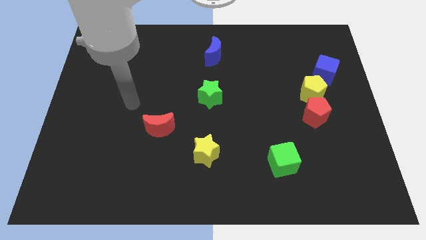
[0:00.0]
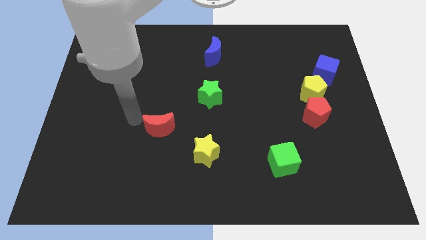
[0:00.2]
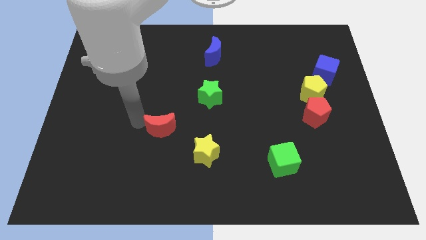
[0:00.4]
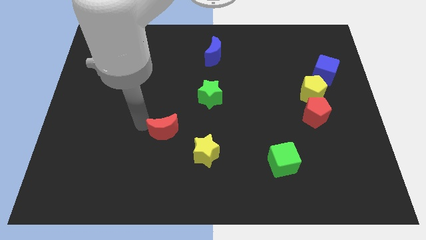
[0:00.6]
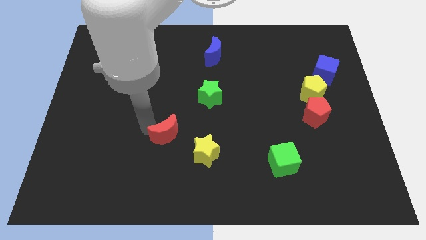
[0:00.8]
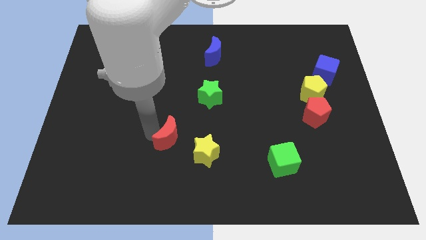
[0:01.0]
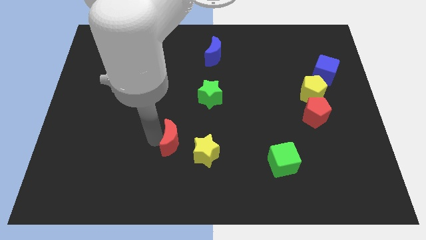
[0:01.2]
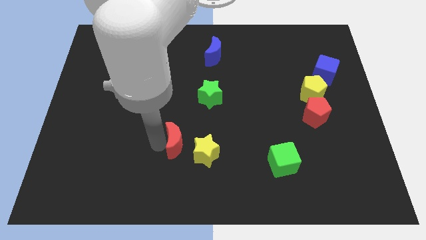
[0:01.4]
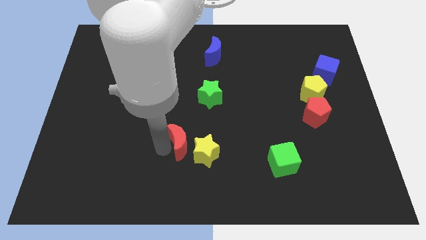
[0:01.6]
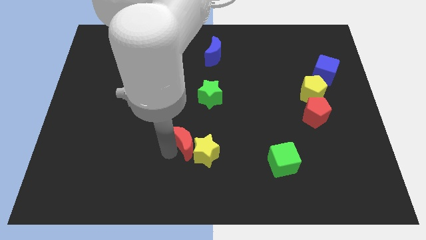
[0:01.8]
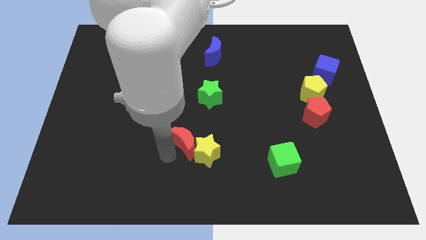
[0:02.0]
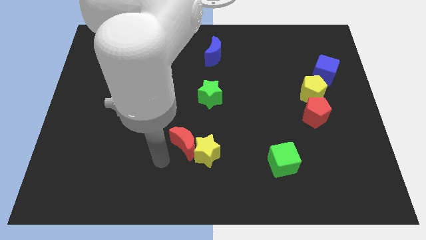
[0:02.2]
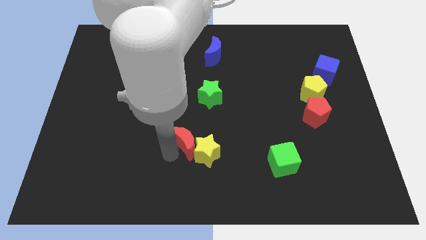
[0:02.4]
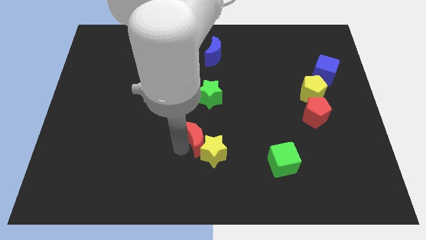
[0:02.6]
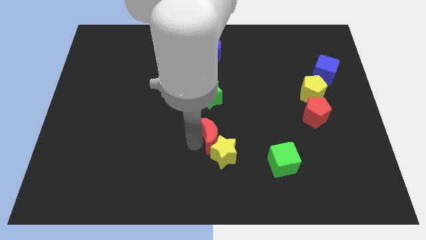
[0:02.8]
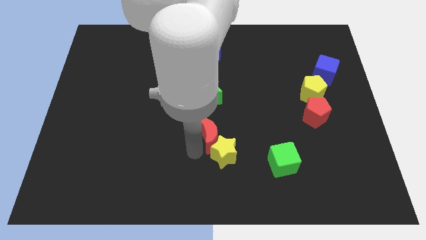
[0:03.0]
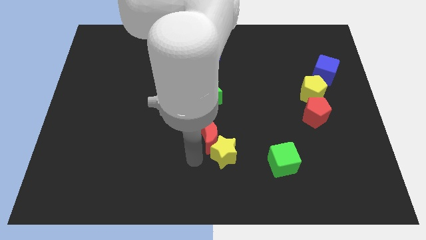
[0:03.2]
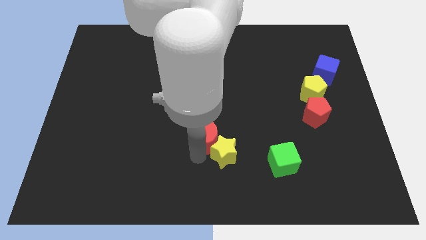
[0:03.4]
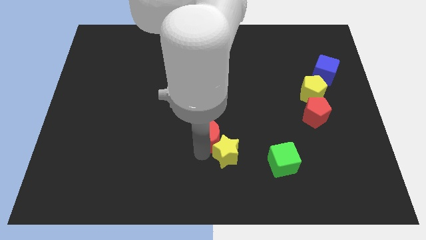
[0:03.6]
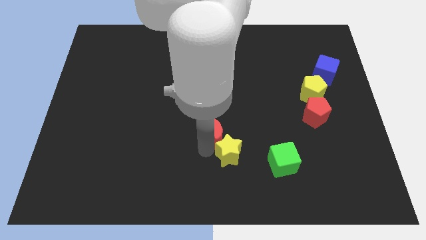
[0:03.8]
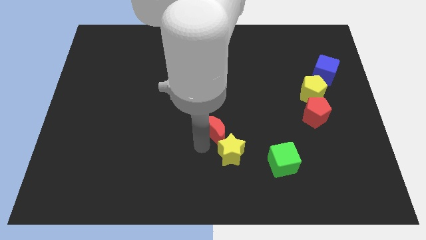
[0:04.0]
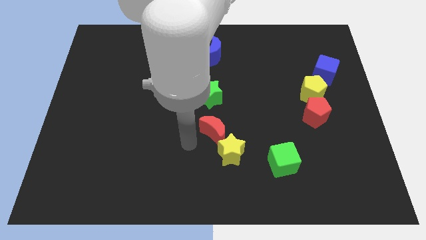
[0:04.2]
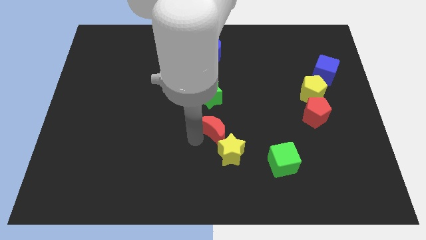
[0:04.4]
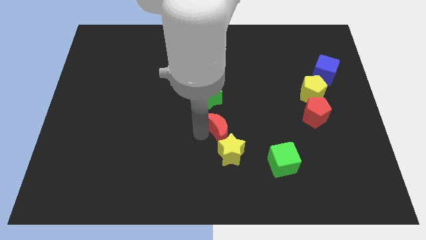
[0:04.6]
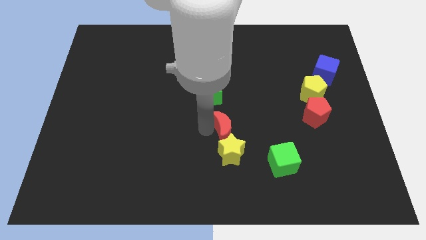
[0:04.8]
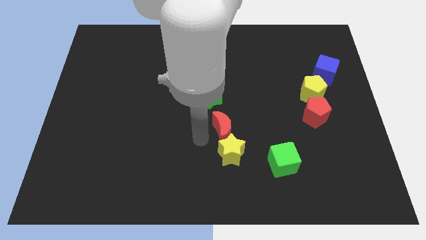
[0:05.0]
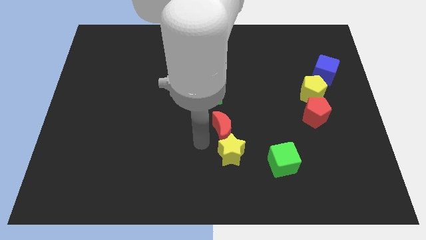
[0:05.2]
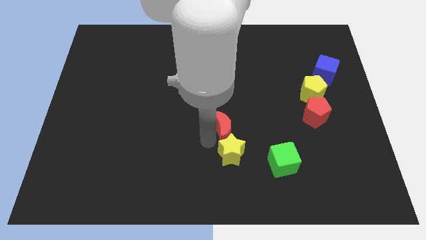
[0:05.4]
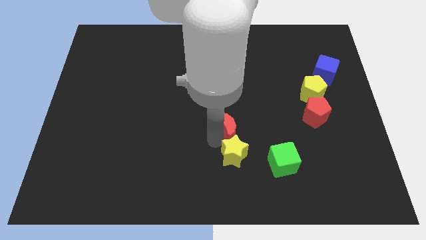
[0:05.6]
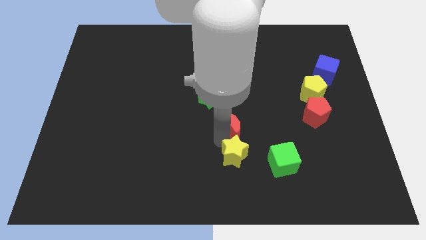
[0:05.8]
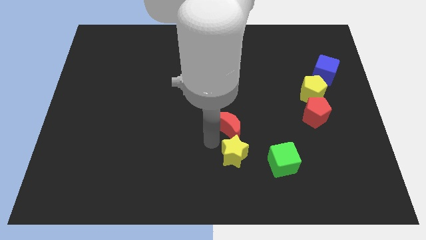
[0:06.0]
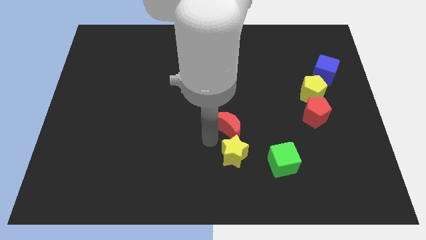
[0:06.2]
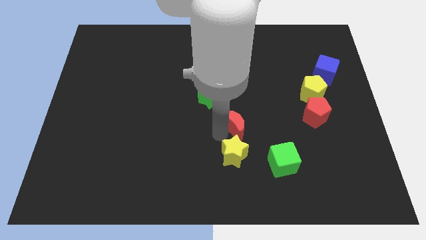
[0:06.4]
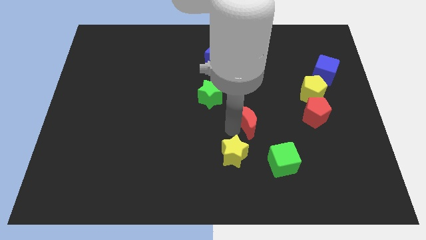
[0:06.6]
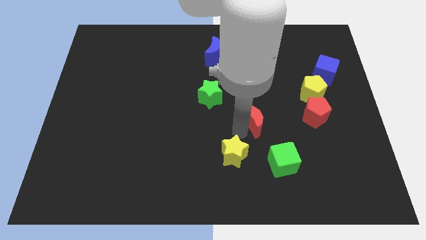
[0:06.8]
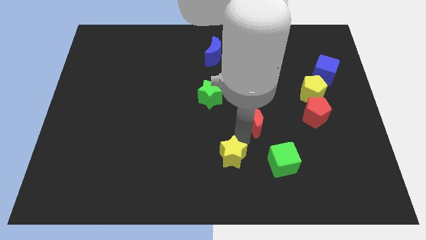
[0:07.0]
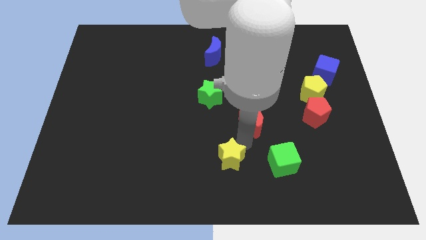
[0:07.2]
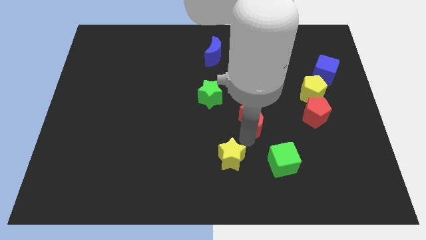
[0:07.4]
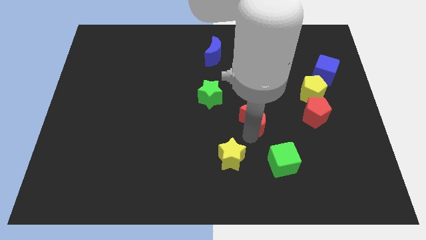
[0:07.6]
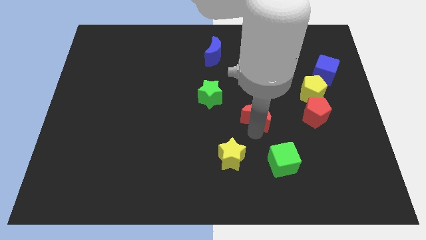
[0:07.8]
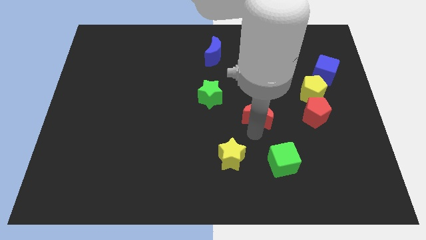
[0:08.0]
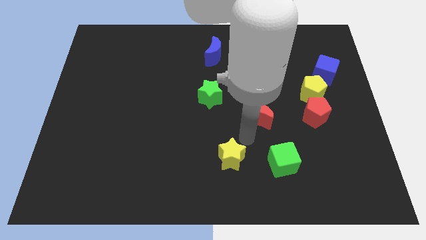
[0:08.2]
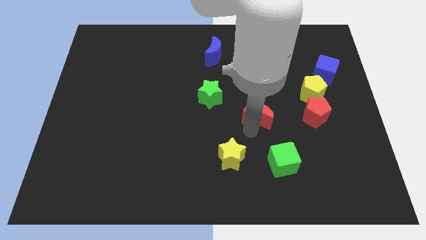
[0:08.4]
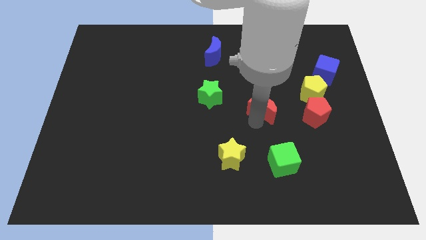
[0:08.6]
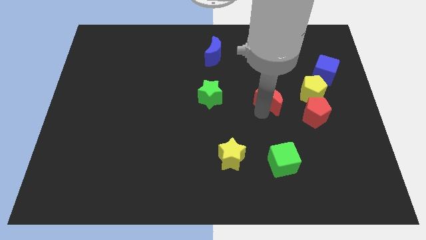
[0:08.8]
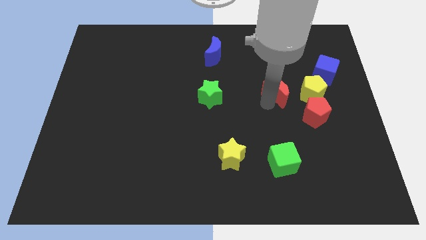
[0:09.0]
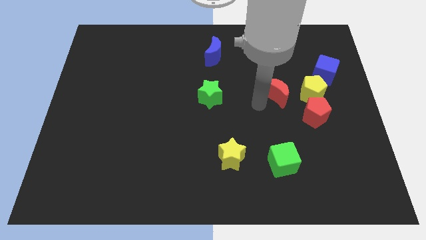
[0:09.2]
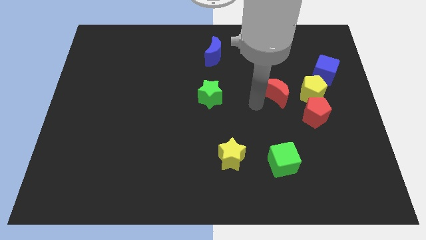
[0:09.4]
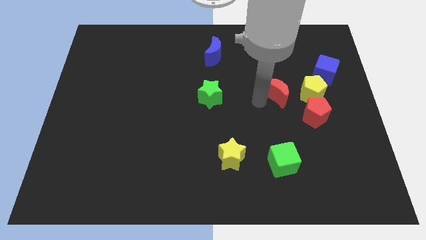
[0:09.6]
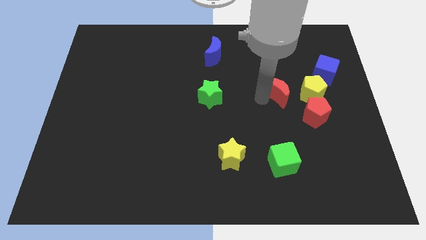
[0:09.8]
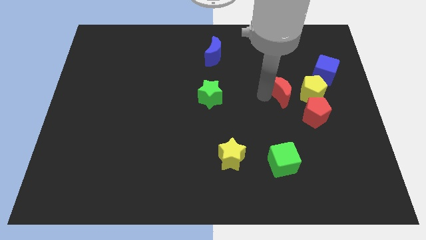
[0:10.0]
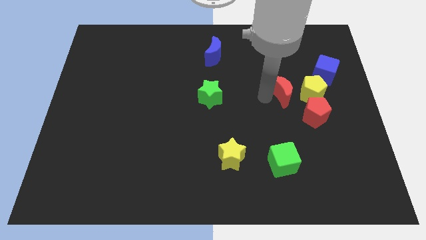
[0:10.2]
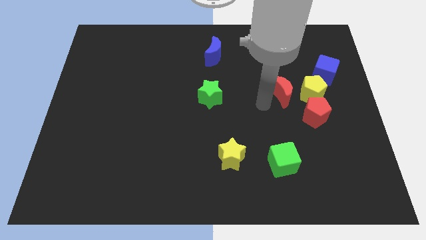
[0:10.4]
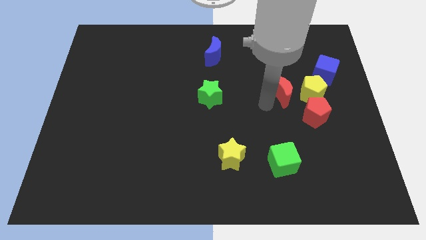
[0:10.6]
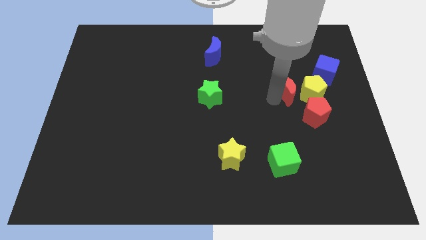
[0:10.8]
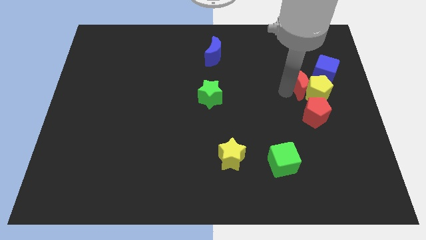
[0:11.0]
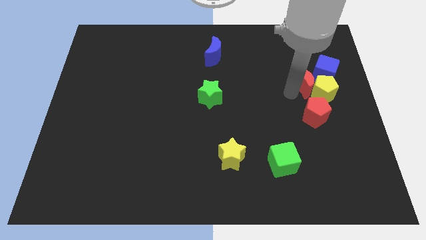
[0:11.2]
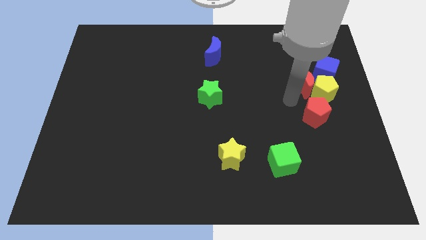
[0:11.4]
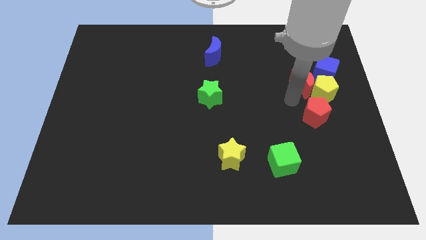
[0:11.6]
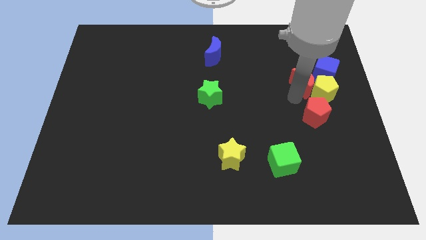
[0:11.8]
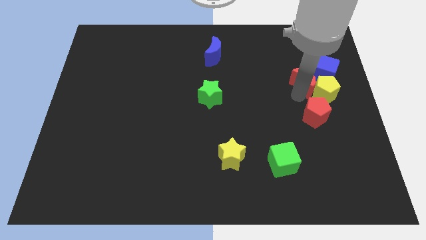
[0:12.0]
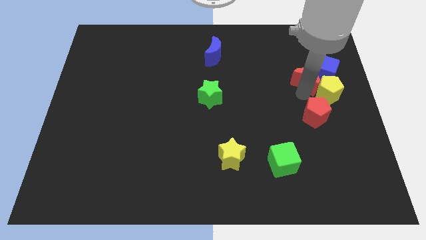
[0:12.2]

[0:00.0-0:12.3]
move the red moon to the blue cube

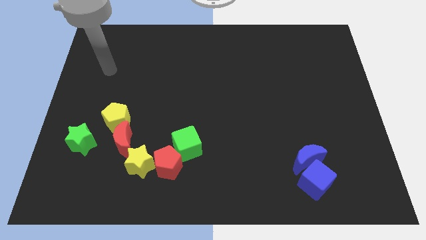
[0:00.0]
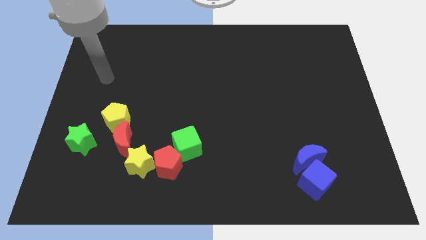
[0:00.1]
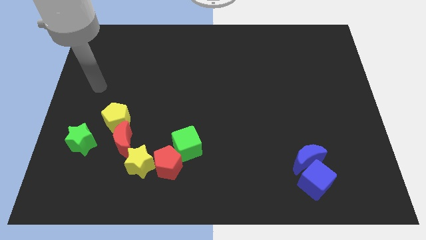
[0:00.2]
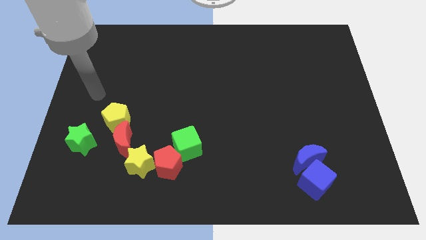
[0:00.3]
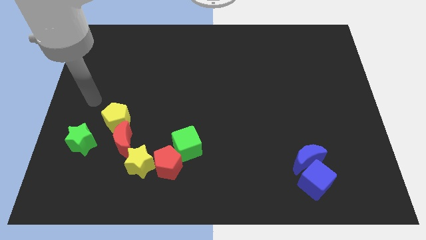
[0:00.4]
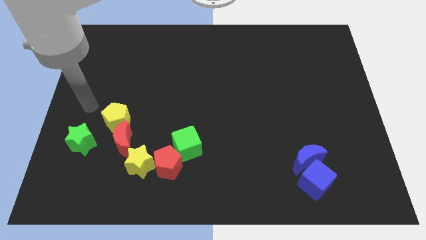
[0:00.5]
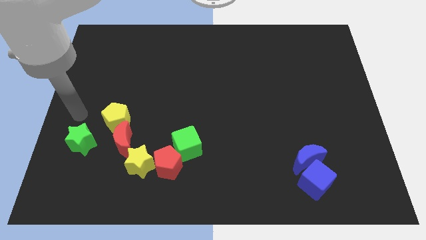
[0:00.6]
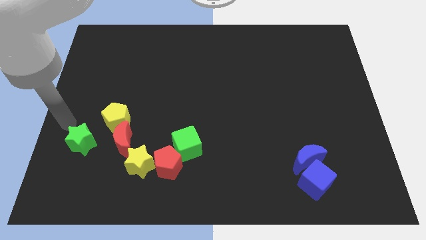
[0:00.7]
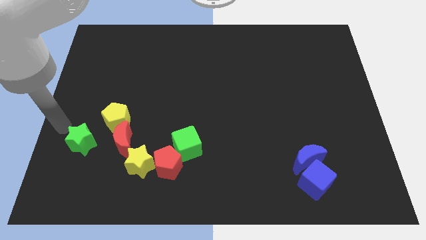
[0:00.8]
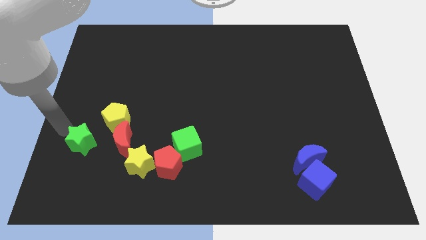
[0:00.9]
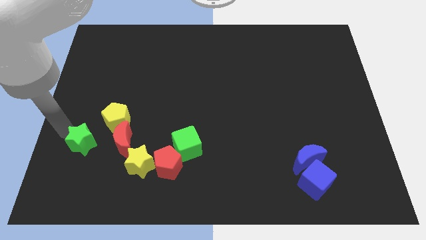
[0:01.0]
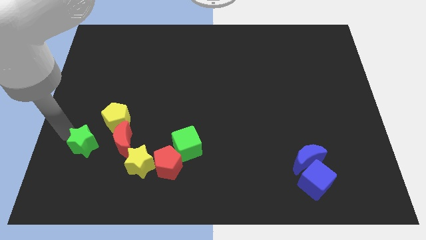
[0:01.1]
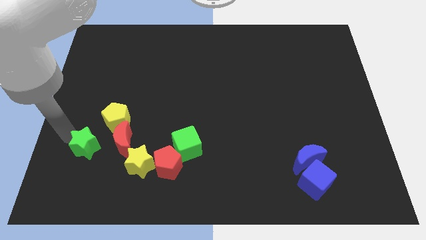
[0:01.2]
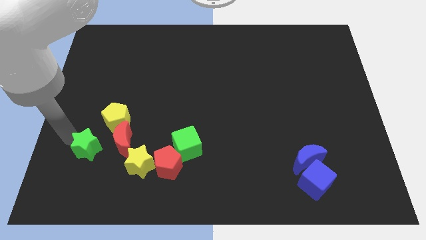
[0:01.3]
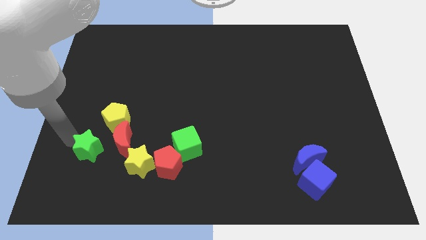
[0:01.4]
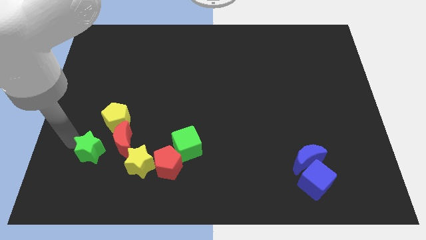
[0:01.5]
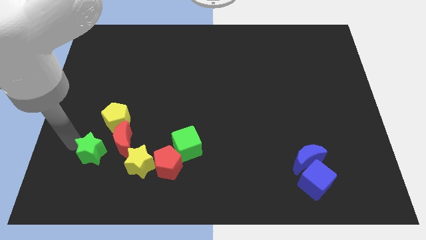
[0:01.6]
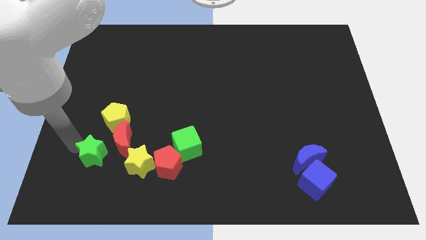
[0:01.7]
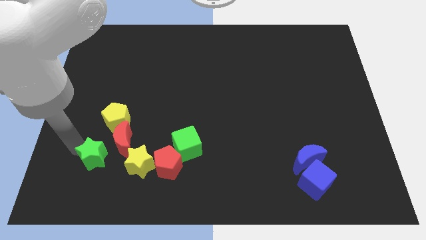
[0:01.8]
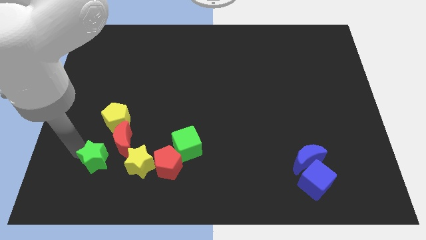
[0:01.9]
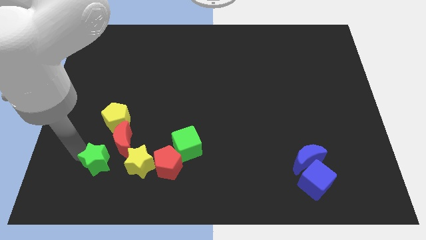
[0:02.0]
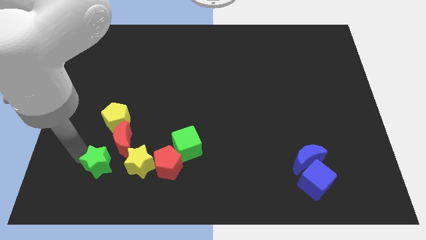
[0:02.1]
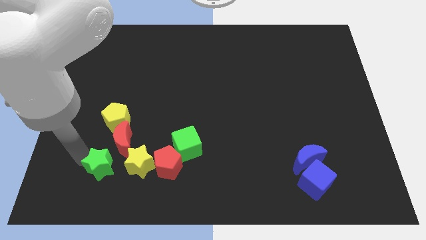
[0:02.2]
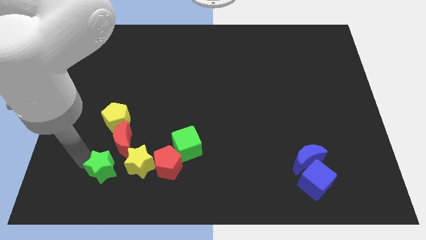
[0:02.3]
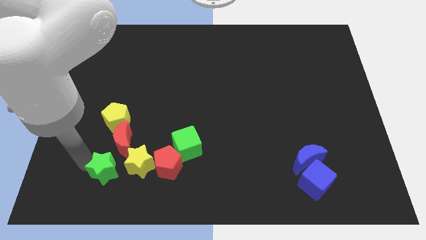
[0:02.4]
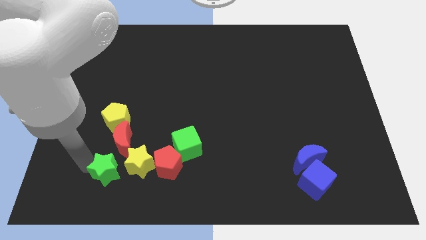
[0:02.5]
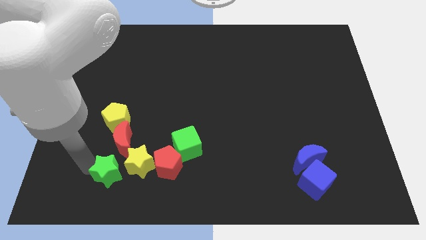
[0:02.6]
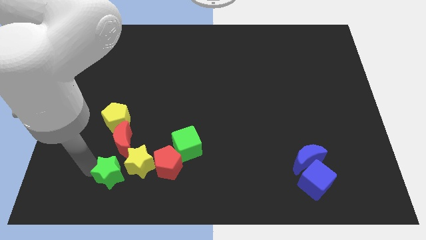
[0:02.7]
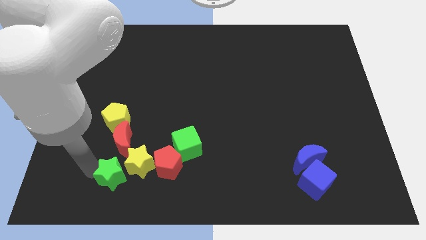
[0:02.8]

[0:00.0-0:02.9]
move the green star to the yellow star
